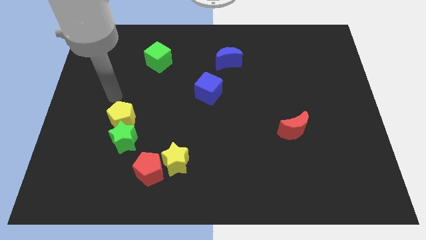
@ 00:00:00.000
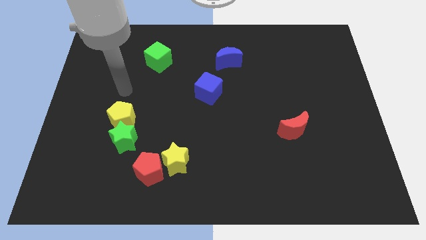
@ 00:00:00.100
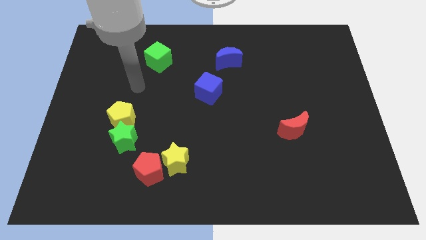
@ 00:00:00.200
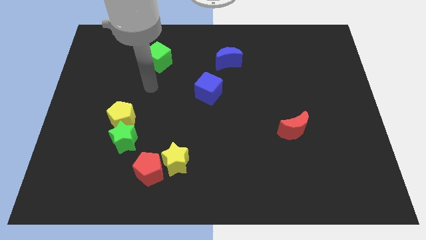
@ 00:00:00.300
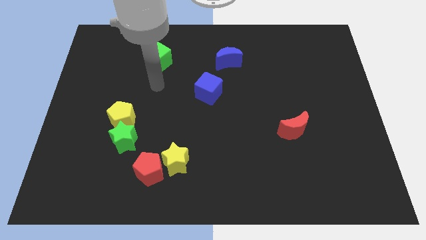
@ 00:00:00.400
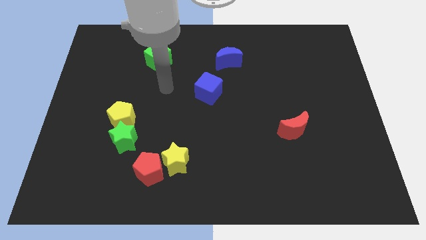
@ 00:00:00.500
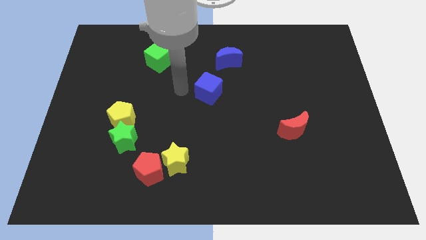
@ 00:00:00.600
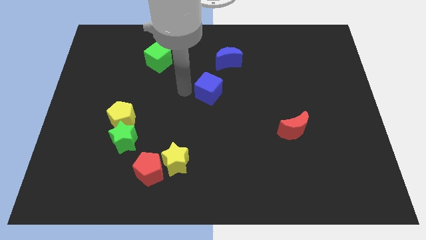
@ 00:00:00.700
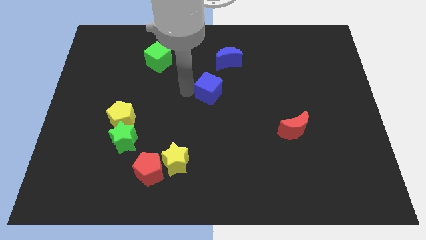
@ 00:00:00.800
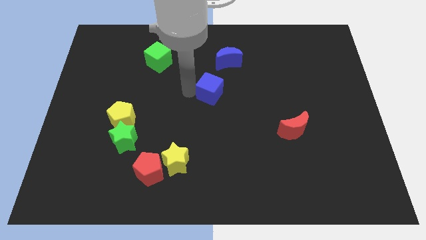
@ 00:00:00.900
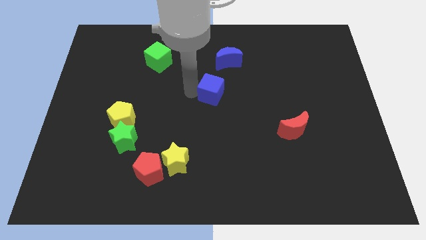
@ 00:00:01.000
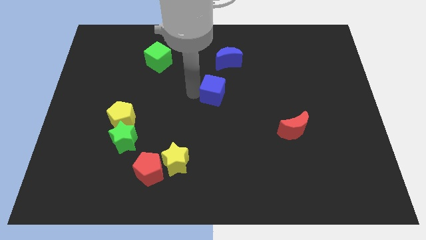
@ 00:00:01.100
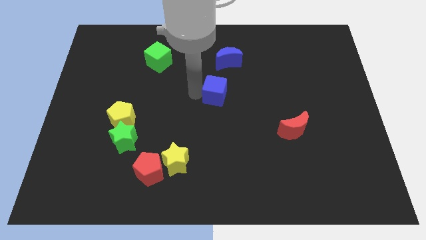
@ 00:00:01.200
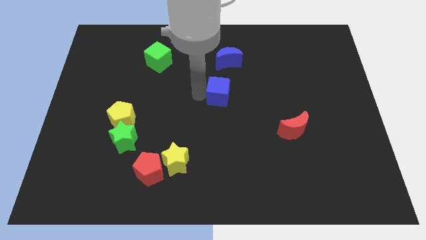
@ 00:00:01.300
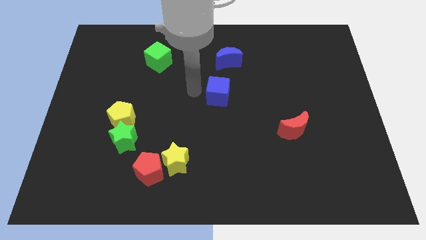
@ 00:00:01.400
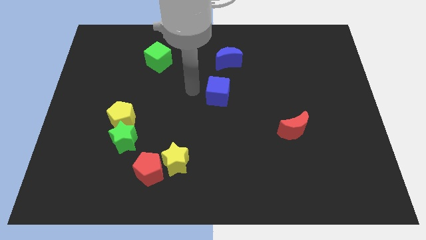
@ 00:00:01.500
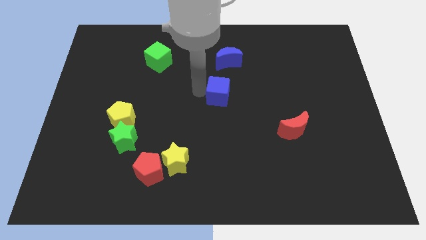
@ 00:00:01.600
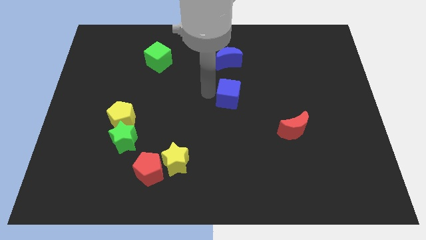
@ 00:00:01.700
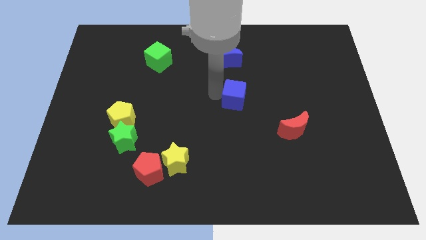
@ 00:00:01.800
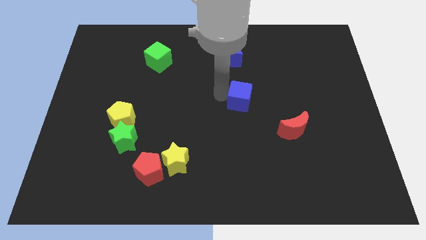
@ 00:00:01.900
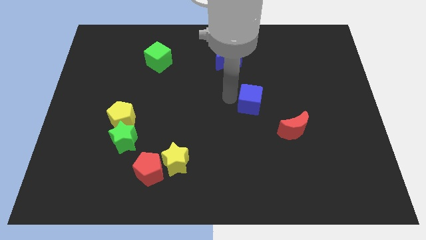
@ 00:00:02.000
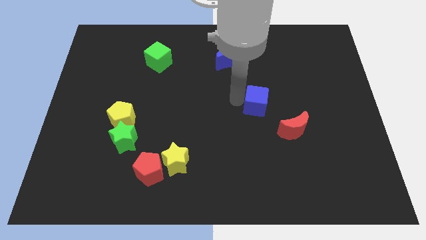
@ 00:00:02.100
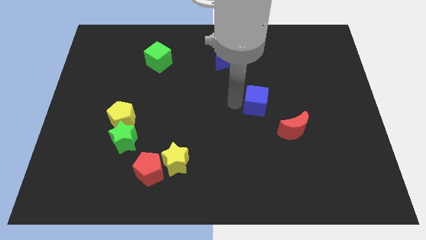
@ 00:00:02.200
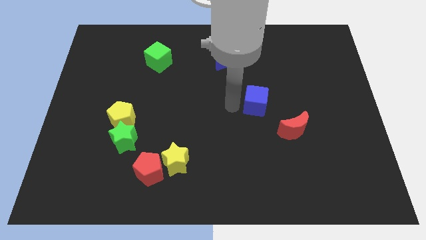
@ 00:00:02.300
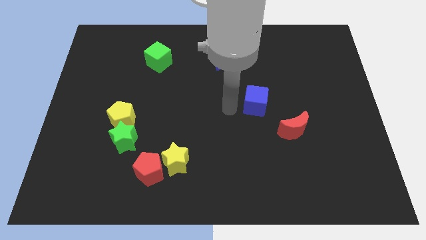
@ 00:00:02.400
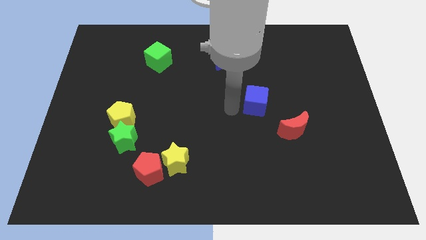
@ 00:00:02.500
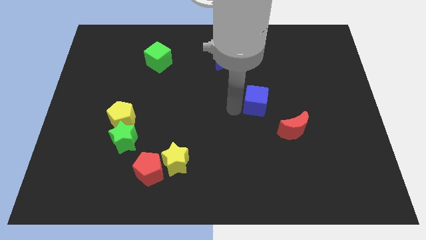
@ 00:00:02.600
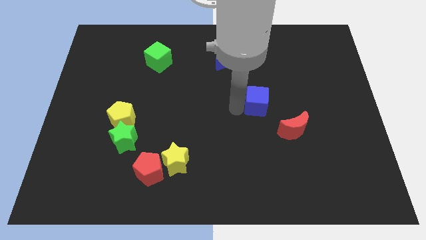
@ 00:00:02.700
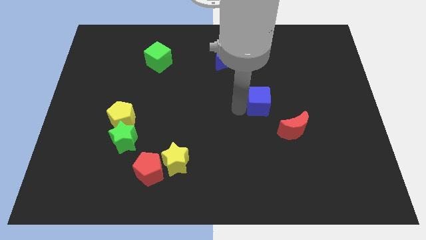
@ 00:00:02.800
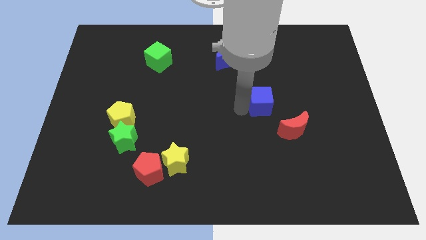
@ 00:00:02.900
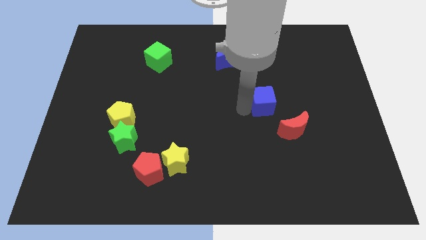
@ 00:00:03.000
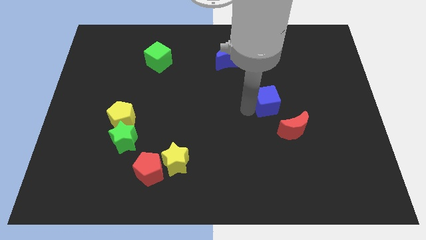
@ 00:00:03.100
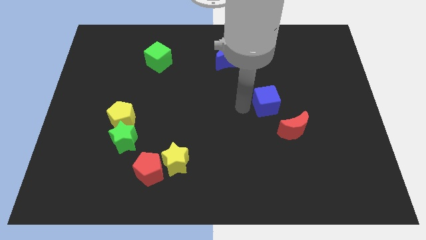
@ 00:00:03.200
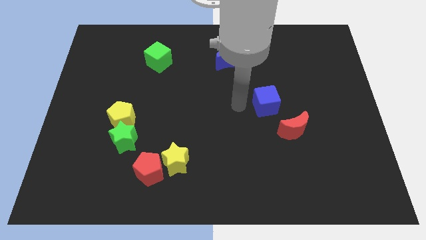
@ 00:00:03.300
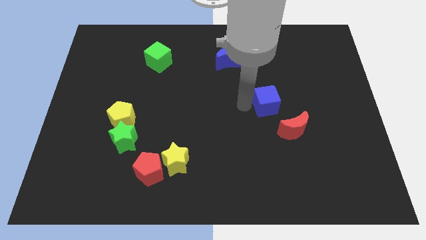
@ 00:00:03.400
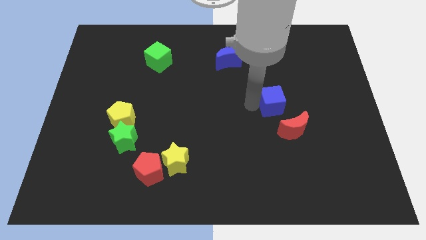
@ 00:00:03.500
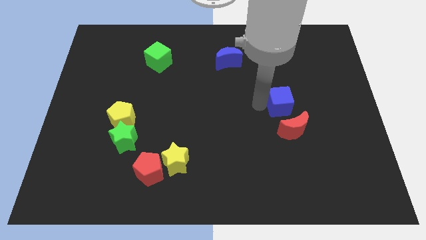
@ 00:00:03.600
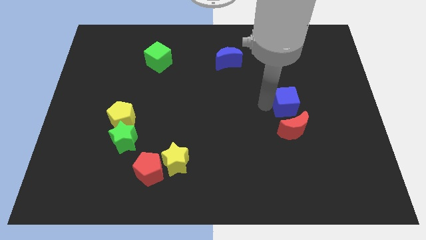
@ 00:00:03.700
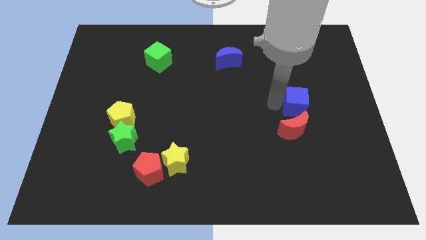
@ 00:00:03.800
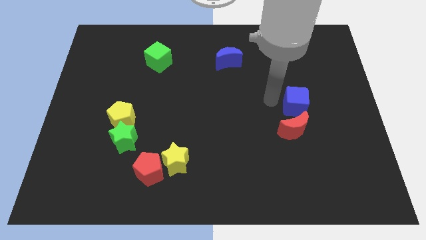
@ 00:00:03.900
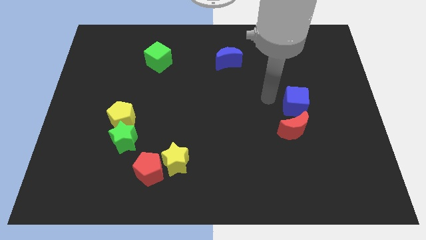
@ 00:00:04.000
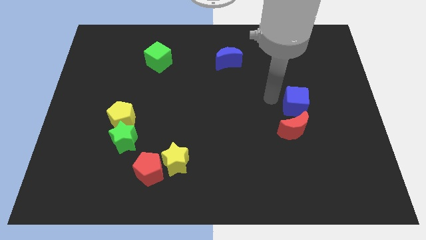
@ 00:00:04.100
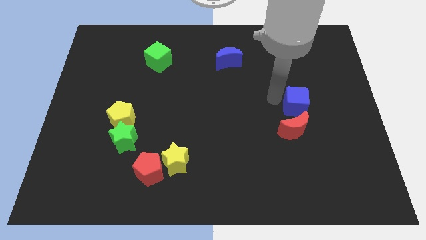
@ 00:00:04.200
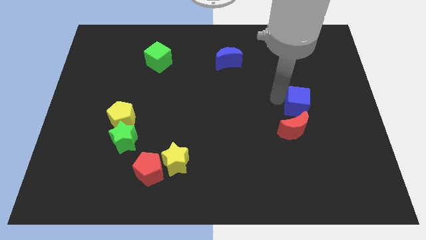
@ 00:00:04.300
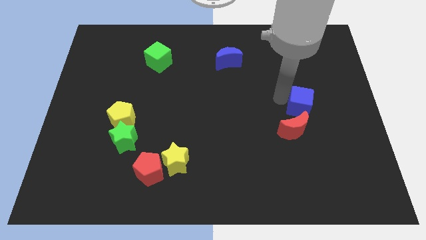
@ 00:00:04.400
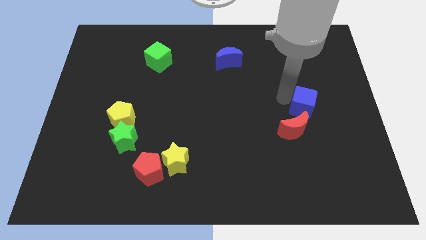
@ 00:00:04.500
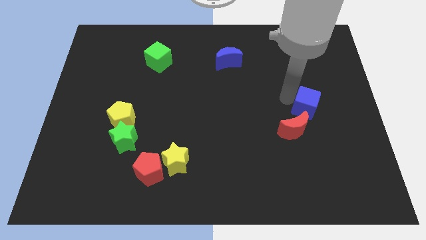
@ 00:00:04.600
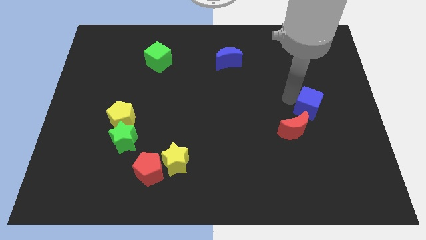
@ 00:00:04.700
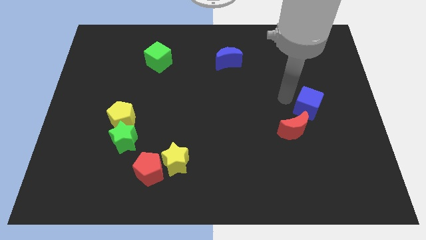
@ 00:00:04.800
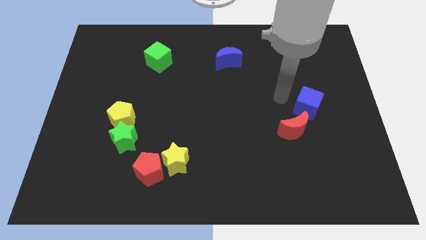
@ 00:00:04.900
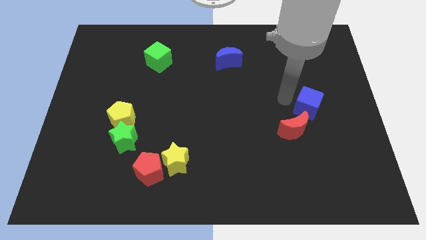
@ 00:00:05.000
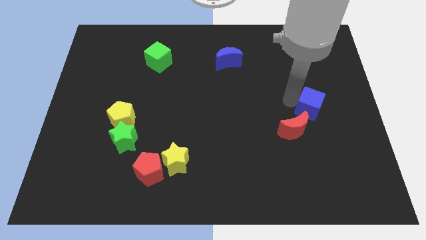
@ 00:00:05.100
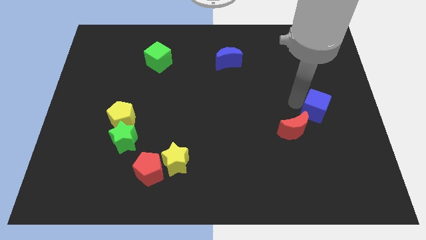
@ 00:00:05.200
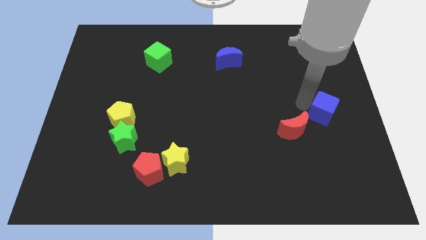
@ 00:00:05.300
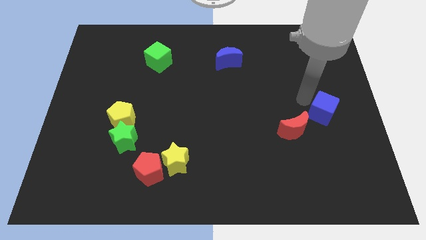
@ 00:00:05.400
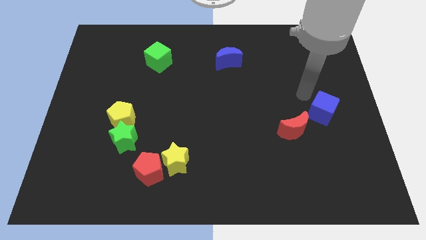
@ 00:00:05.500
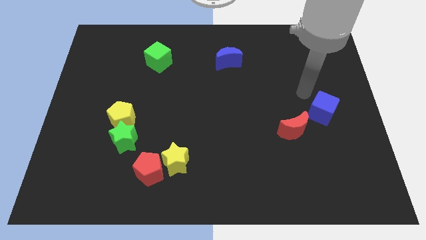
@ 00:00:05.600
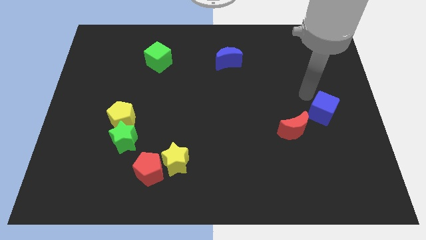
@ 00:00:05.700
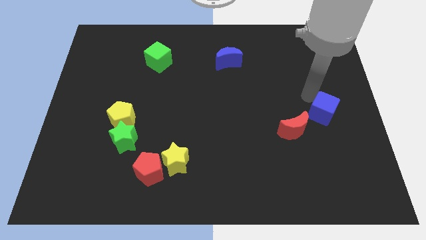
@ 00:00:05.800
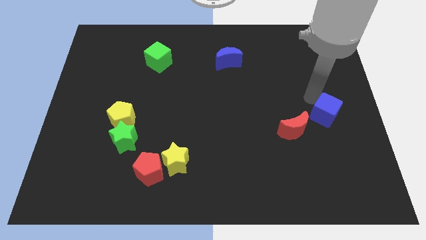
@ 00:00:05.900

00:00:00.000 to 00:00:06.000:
push the blue cube to the right side of the red moon
